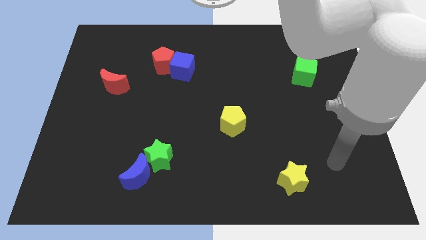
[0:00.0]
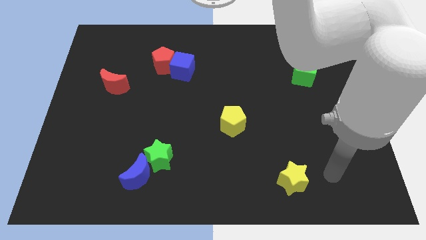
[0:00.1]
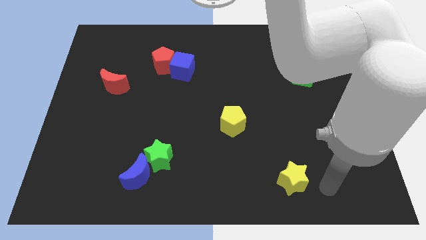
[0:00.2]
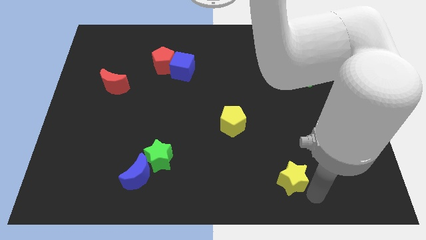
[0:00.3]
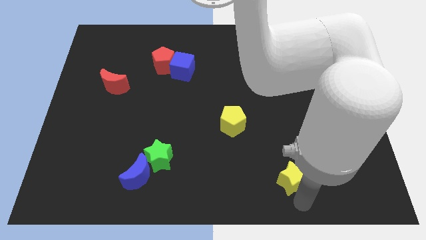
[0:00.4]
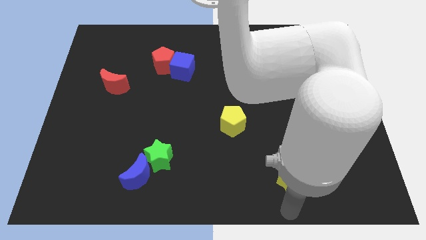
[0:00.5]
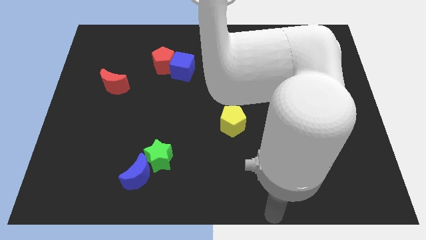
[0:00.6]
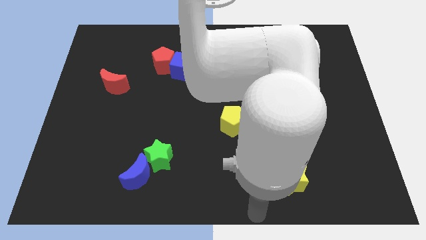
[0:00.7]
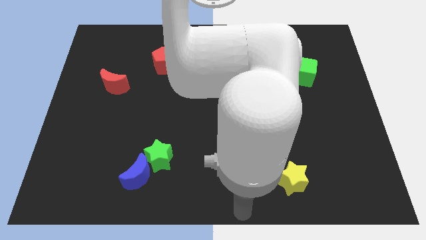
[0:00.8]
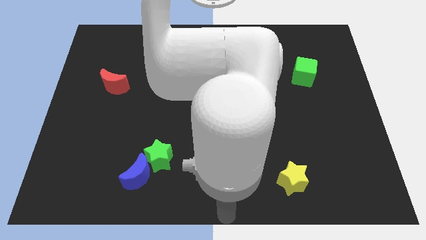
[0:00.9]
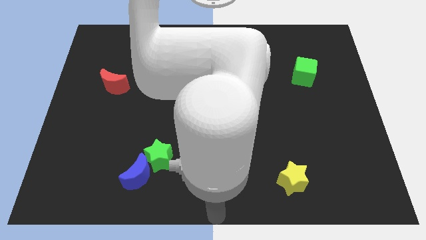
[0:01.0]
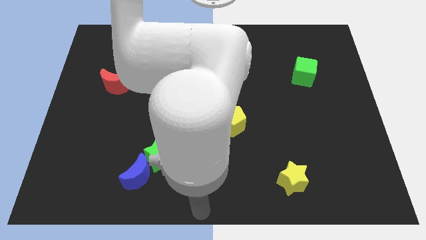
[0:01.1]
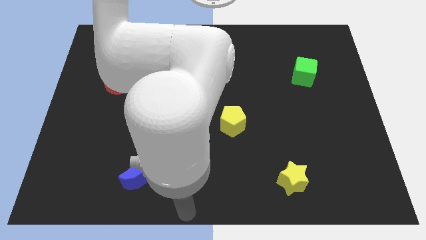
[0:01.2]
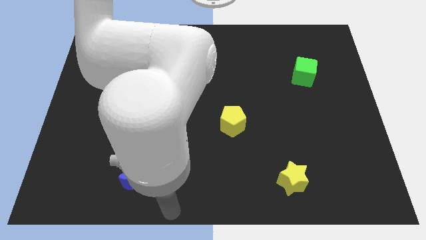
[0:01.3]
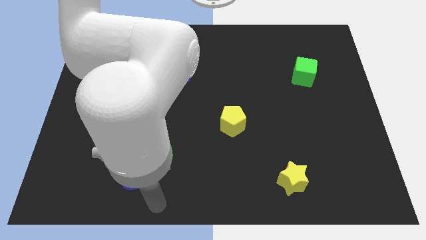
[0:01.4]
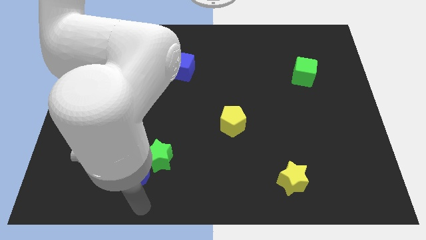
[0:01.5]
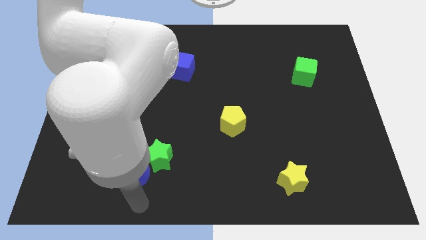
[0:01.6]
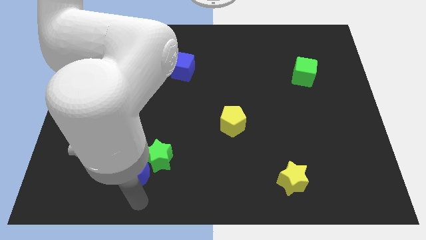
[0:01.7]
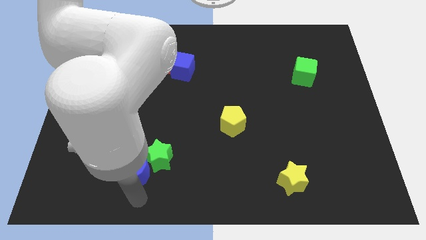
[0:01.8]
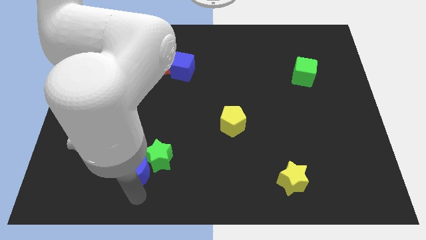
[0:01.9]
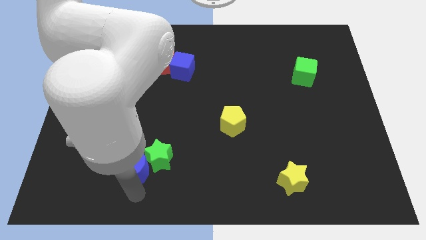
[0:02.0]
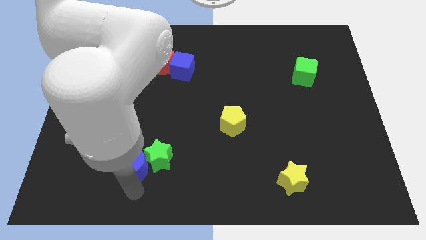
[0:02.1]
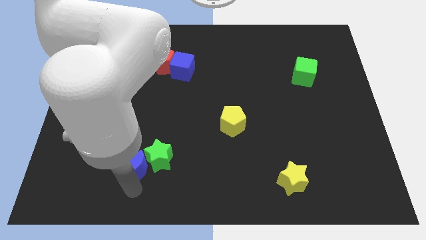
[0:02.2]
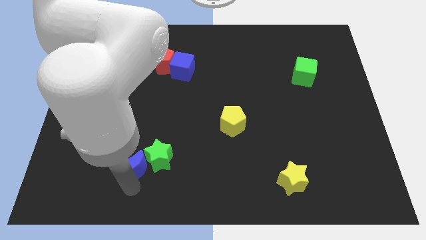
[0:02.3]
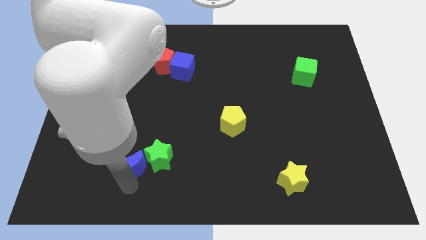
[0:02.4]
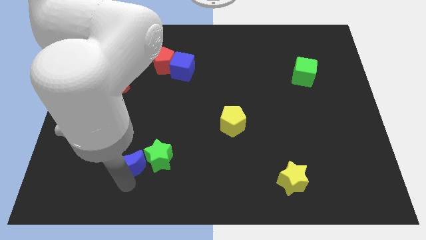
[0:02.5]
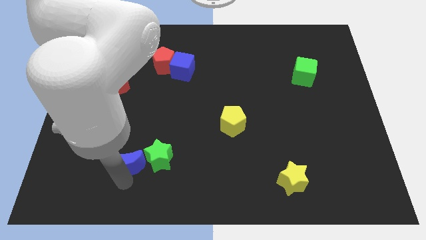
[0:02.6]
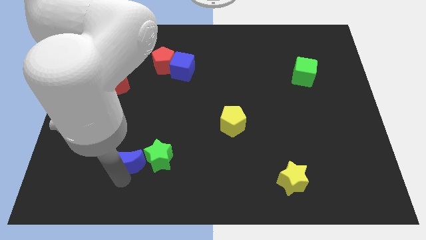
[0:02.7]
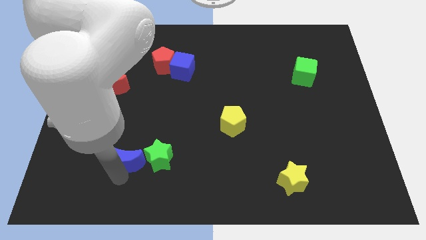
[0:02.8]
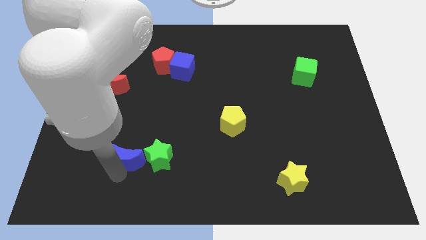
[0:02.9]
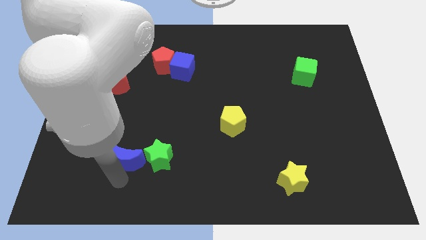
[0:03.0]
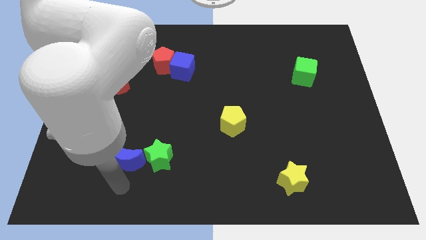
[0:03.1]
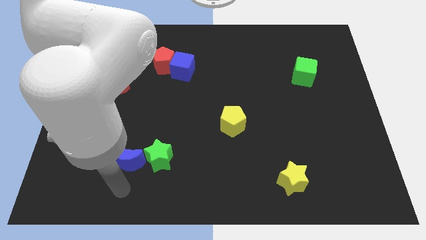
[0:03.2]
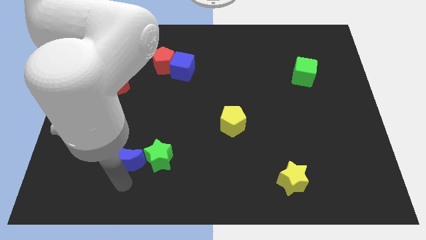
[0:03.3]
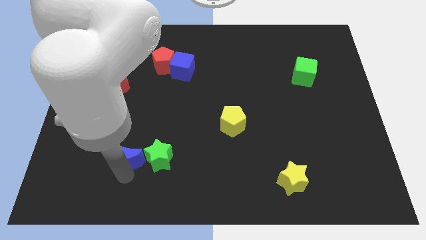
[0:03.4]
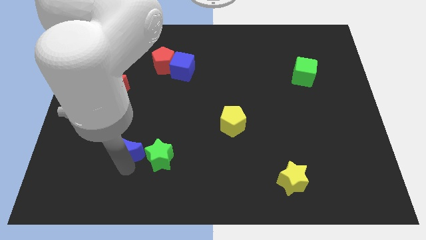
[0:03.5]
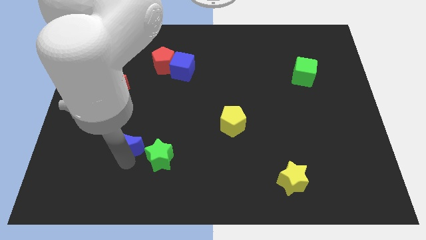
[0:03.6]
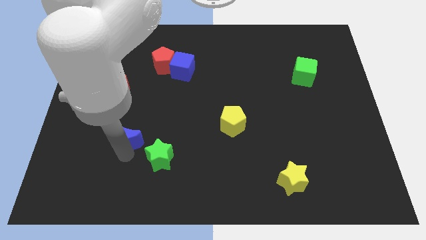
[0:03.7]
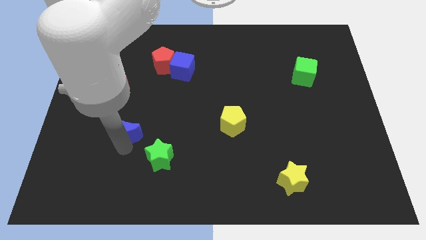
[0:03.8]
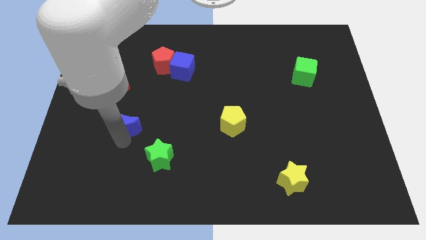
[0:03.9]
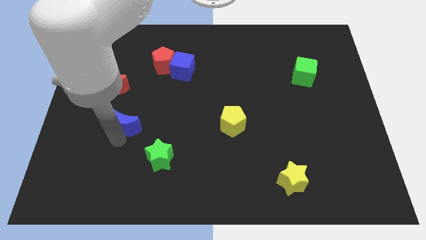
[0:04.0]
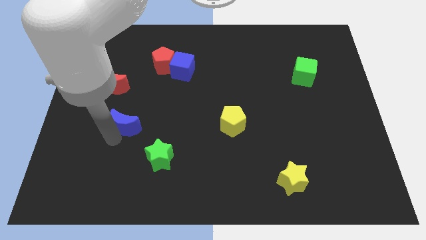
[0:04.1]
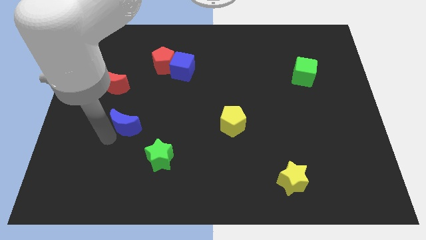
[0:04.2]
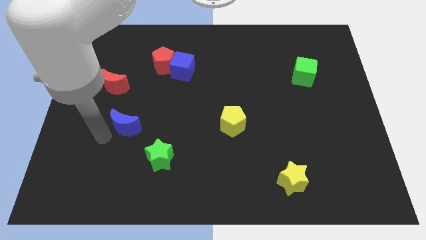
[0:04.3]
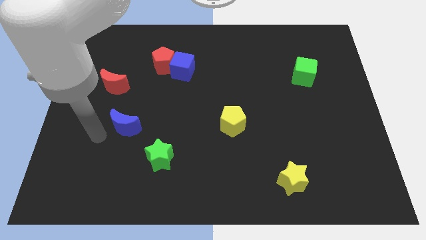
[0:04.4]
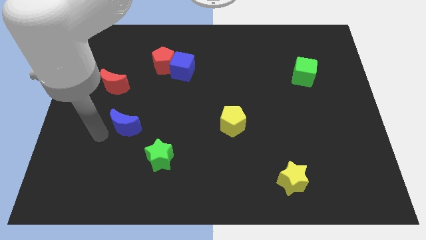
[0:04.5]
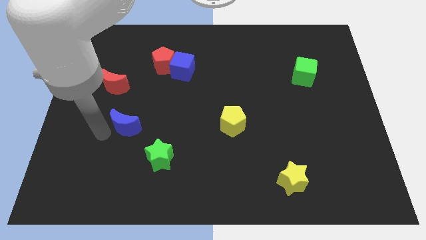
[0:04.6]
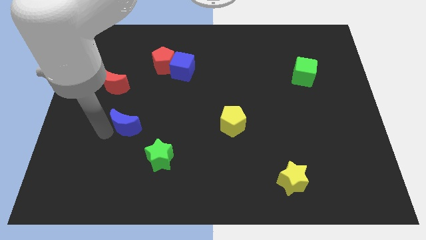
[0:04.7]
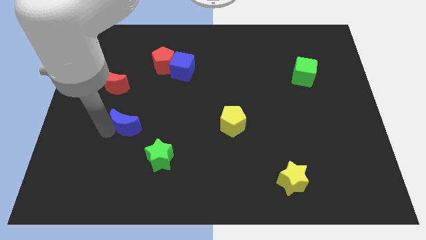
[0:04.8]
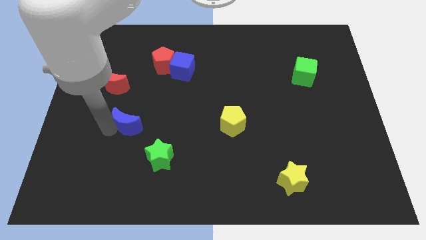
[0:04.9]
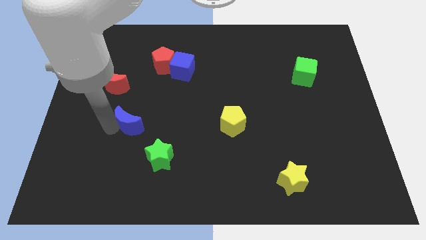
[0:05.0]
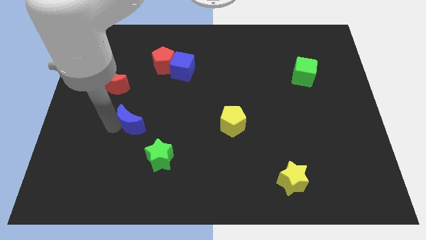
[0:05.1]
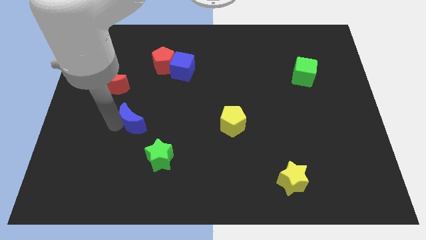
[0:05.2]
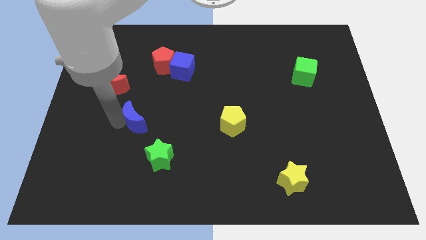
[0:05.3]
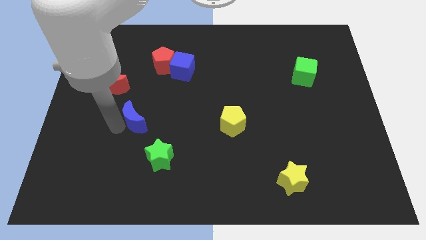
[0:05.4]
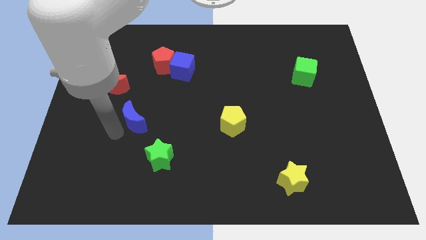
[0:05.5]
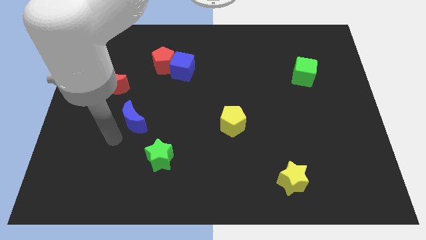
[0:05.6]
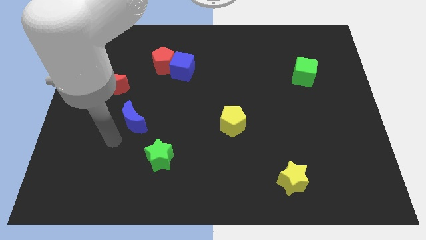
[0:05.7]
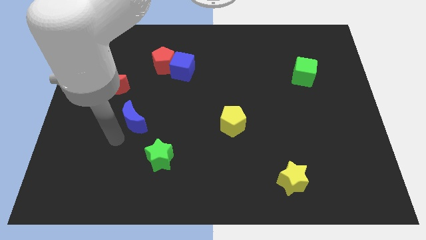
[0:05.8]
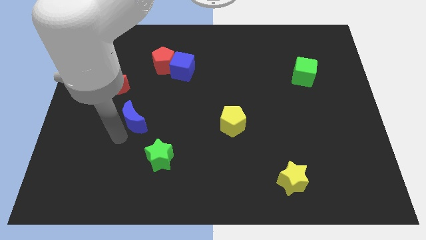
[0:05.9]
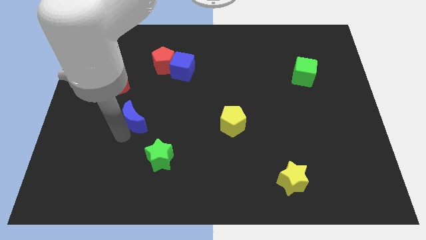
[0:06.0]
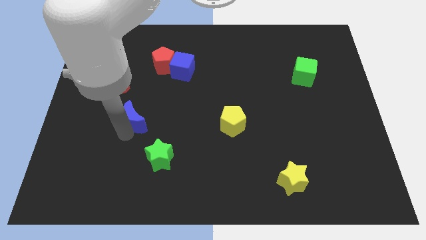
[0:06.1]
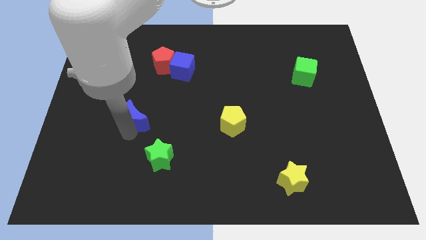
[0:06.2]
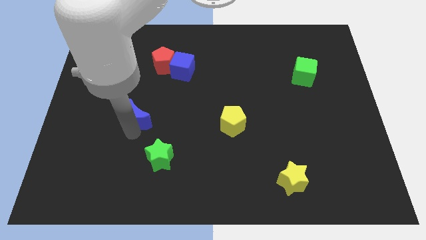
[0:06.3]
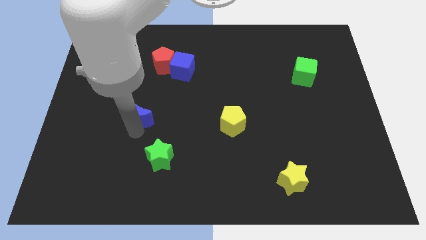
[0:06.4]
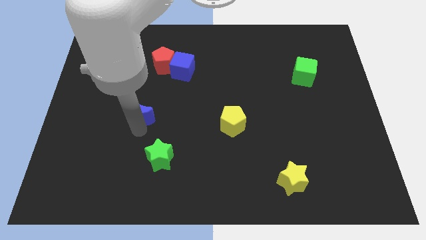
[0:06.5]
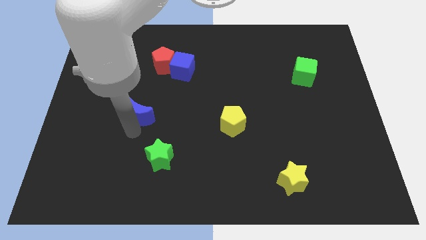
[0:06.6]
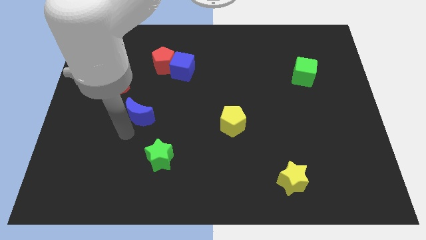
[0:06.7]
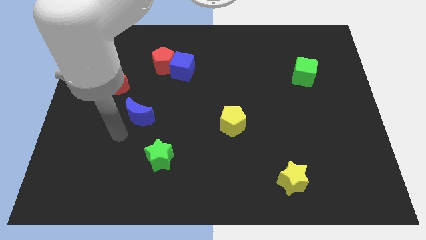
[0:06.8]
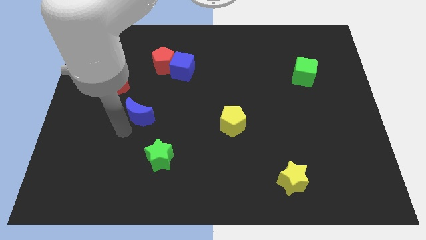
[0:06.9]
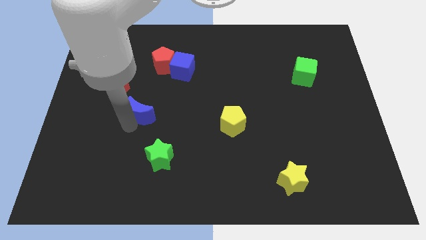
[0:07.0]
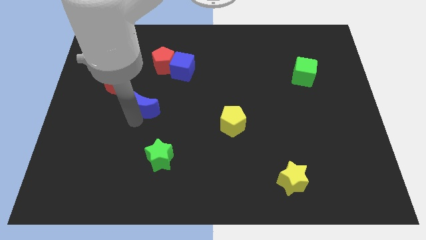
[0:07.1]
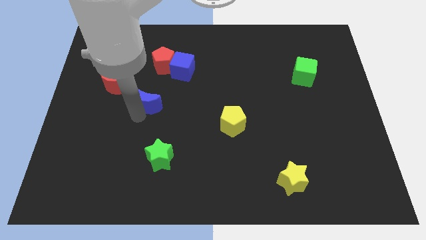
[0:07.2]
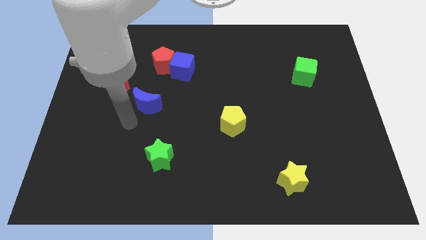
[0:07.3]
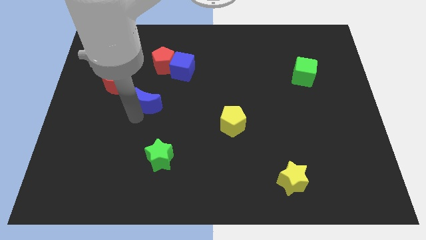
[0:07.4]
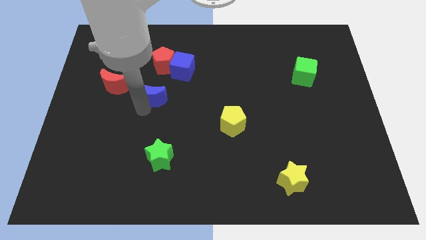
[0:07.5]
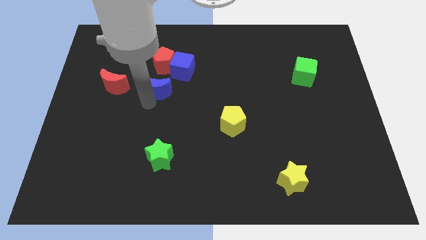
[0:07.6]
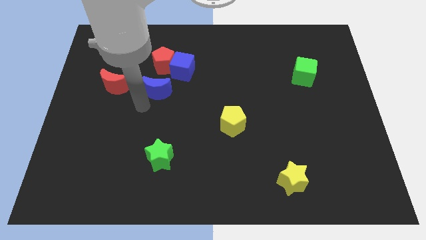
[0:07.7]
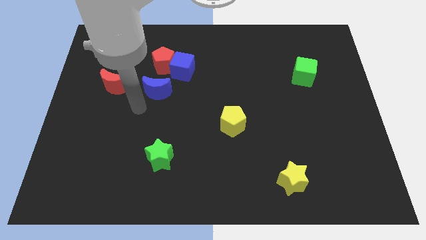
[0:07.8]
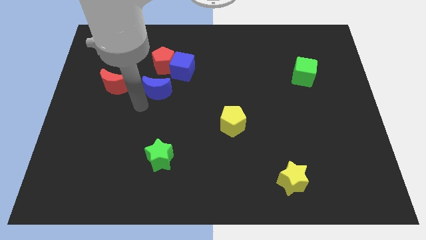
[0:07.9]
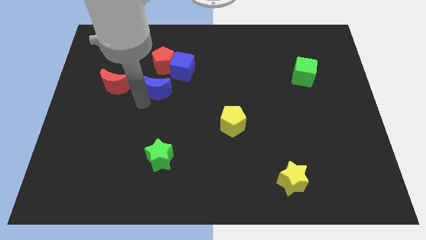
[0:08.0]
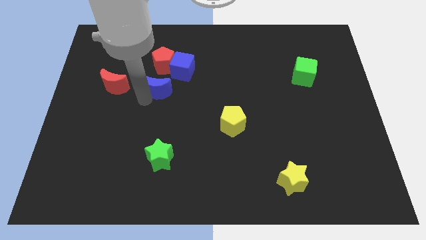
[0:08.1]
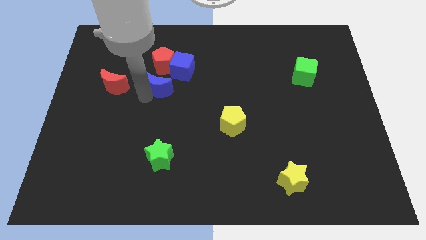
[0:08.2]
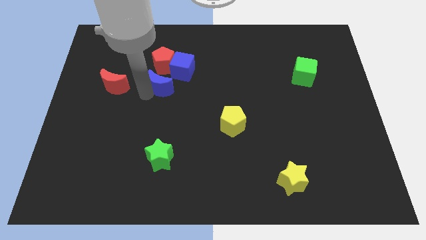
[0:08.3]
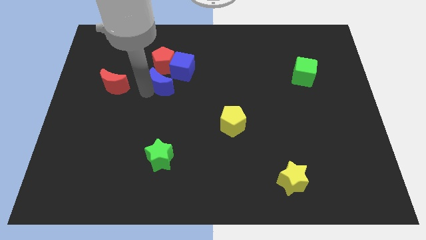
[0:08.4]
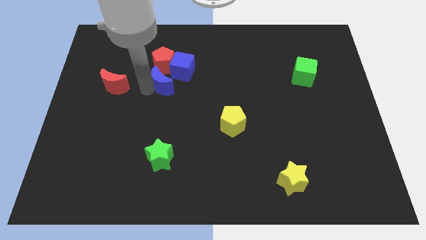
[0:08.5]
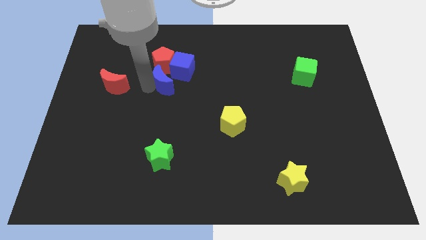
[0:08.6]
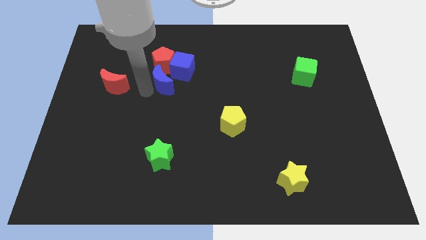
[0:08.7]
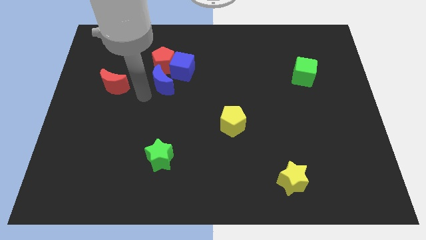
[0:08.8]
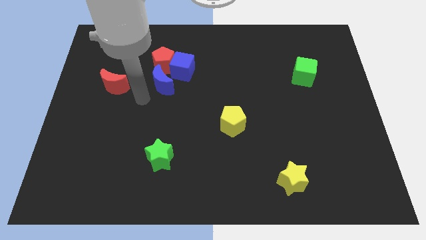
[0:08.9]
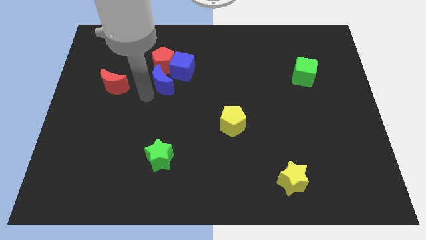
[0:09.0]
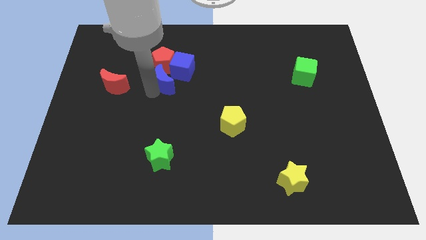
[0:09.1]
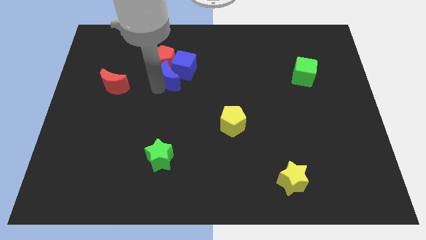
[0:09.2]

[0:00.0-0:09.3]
slide the blue moon towards the blue cube
